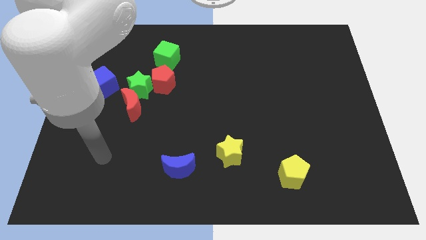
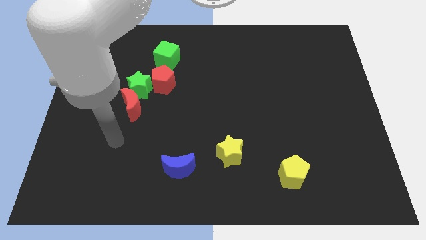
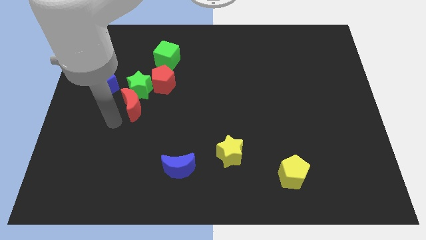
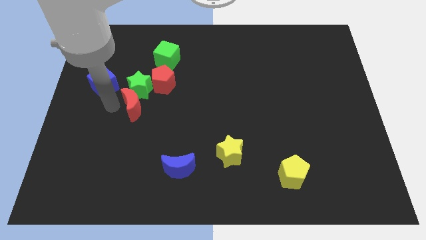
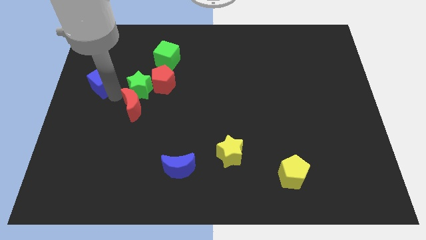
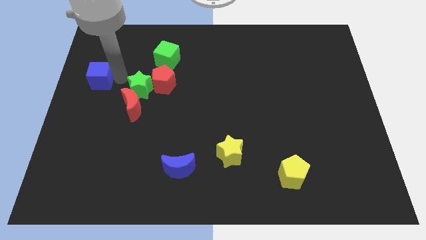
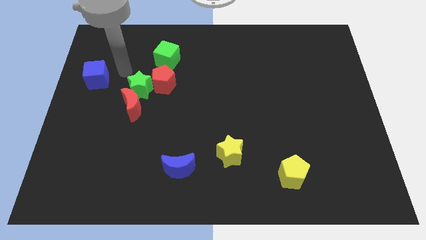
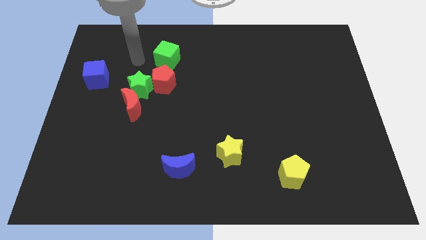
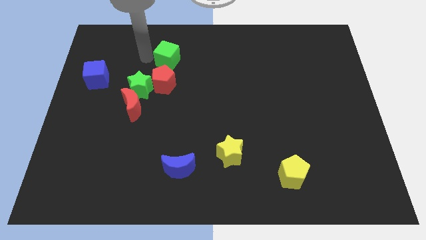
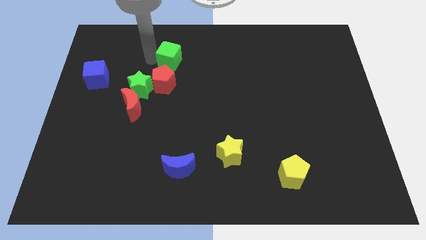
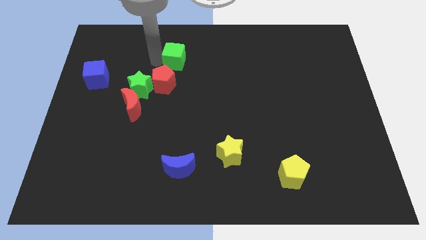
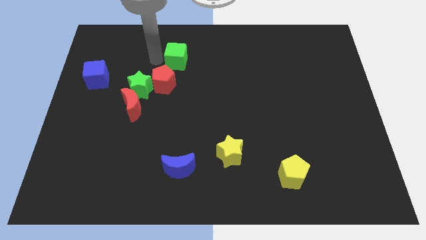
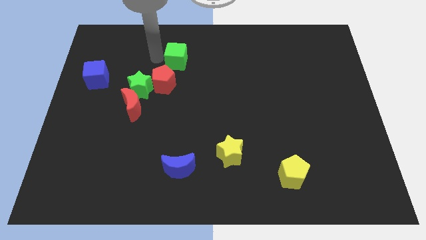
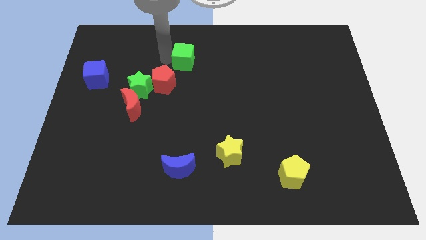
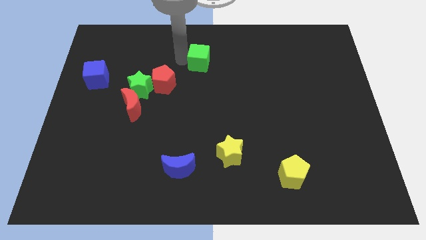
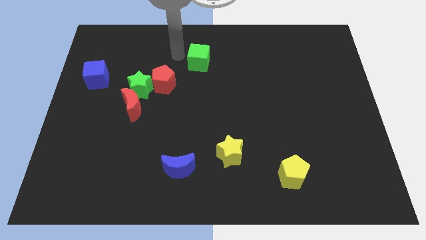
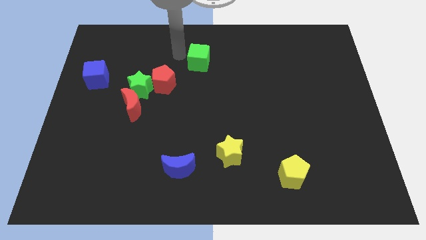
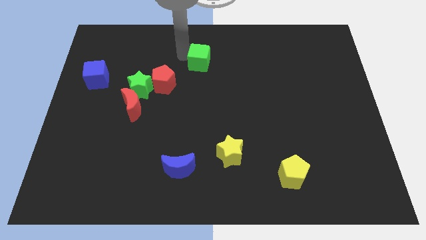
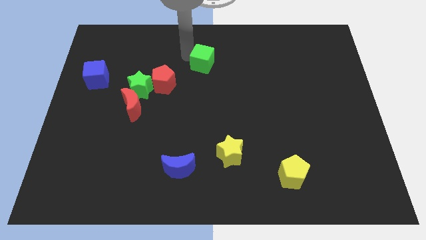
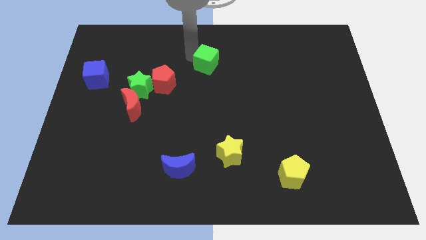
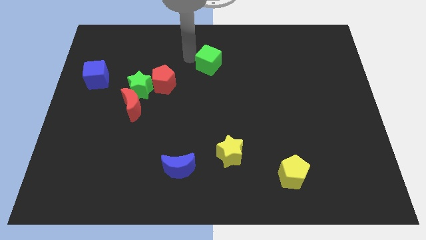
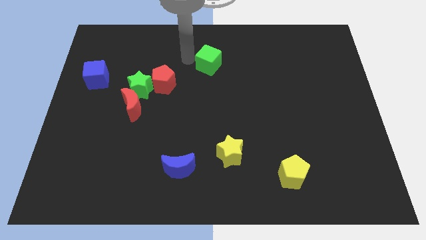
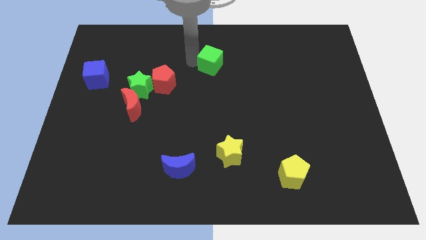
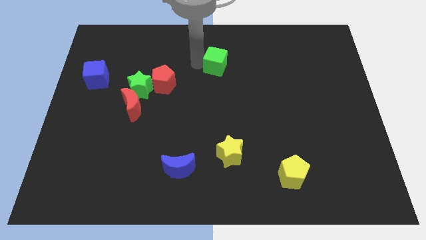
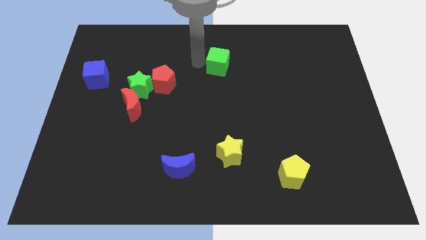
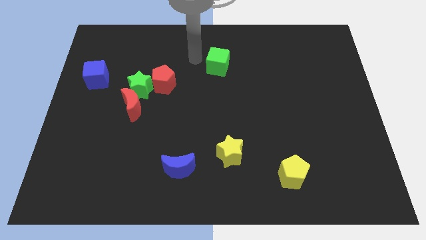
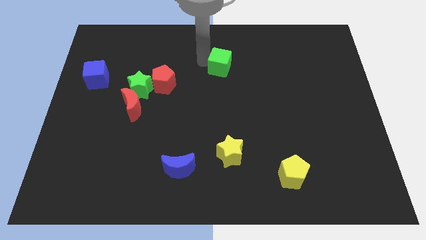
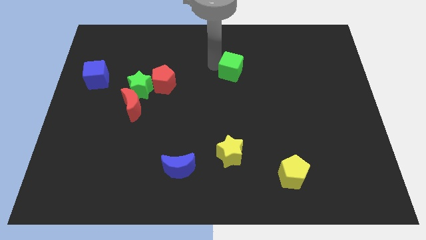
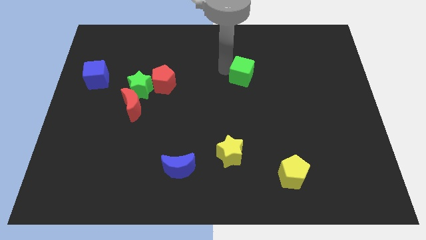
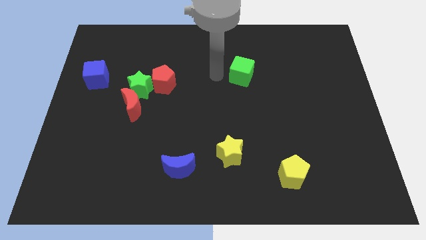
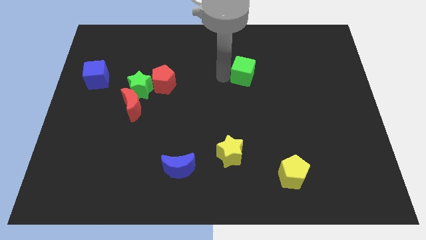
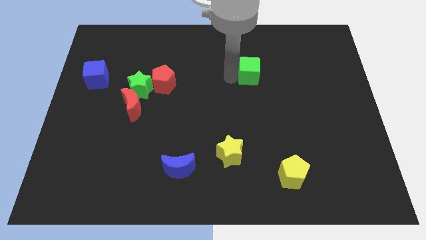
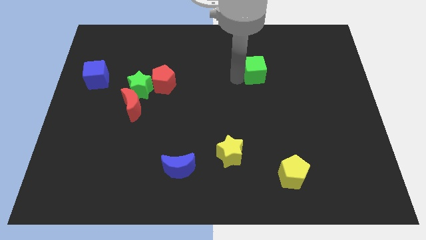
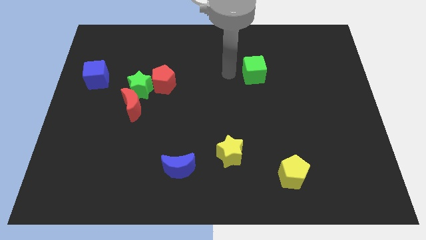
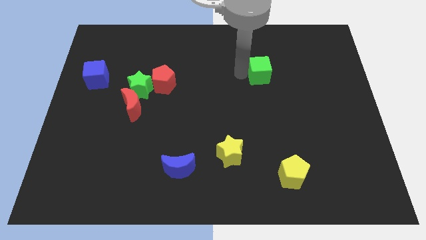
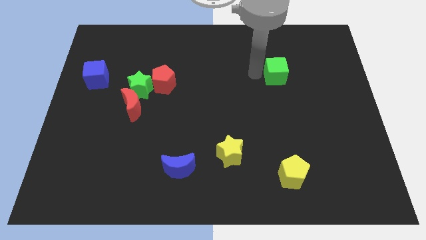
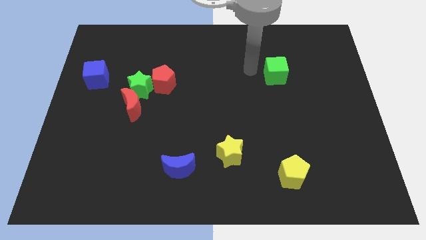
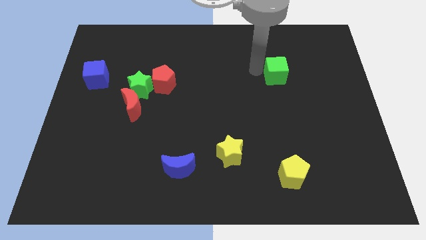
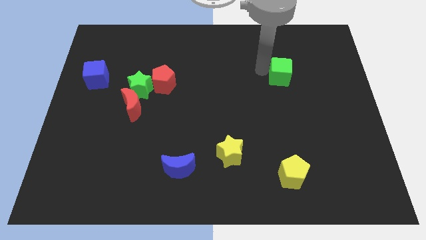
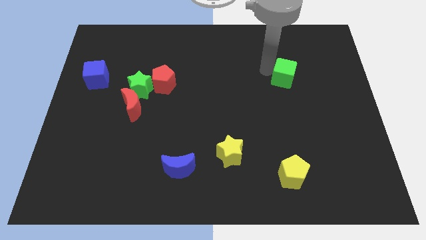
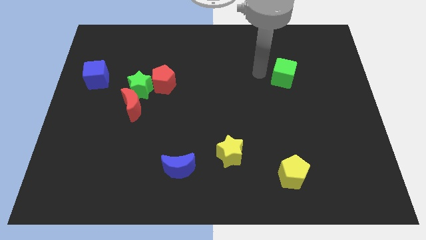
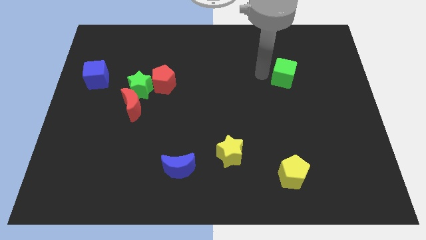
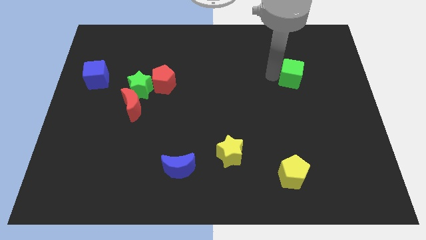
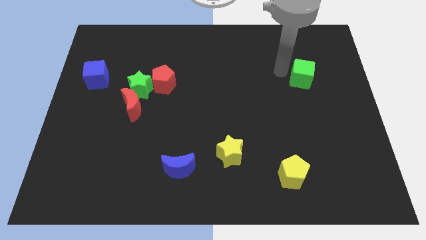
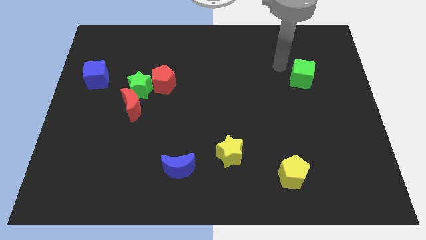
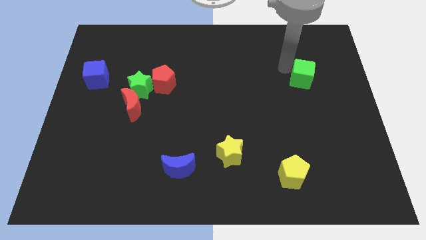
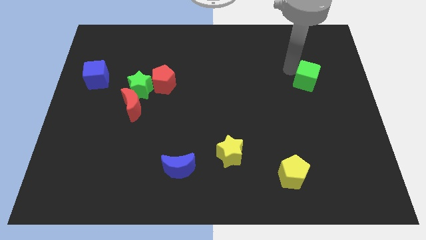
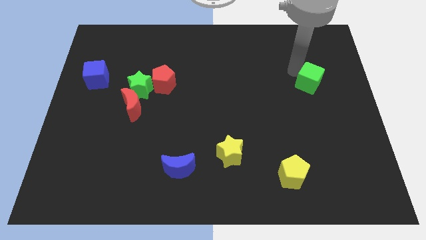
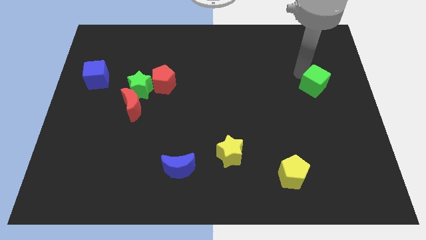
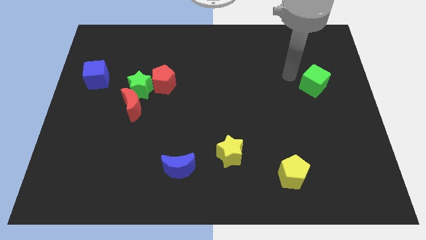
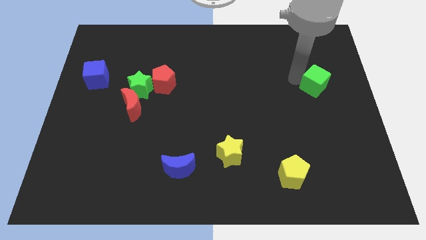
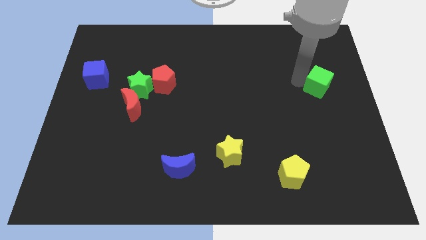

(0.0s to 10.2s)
put the green cube to the right side of the board

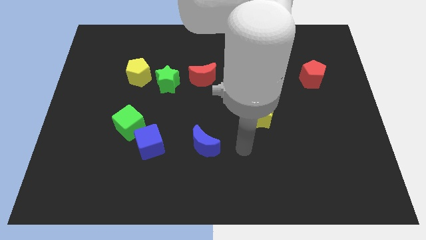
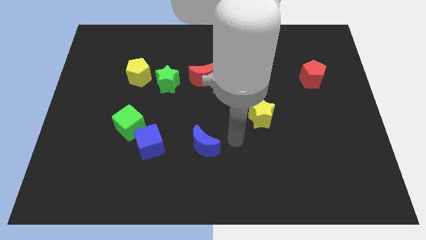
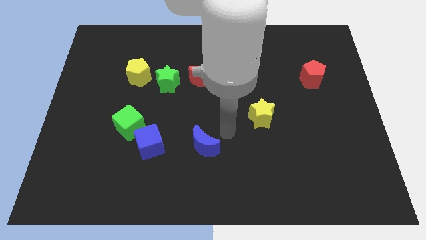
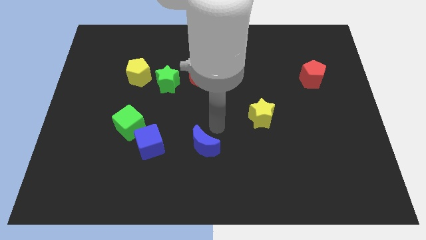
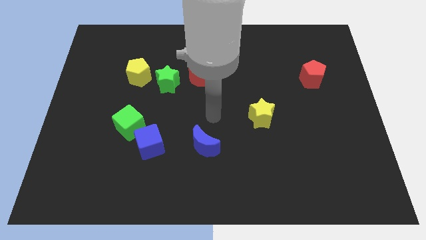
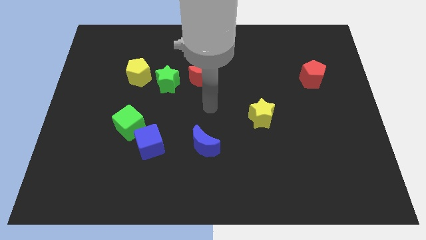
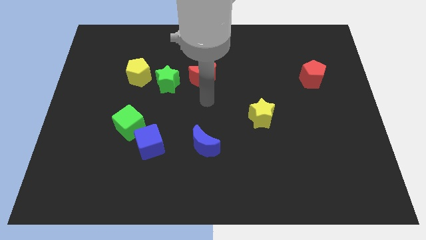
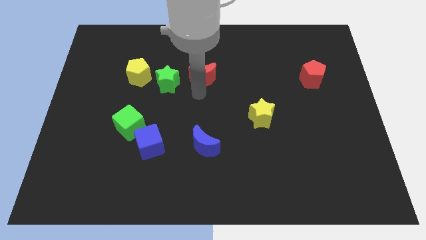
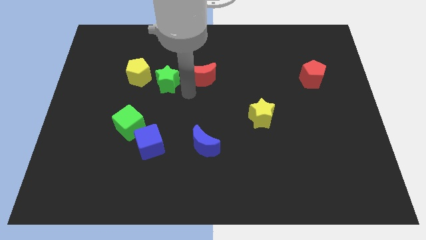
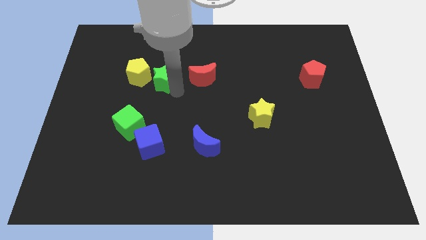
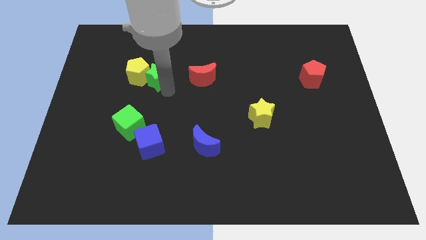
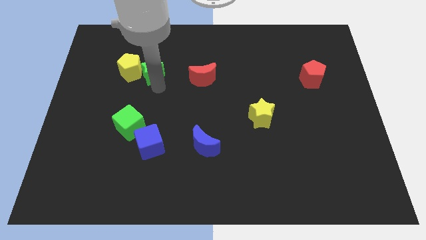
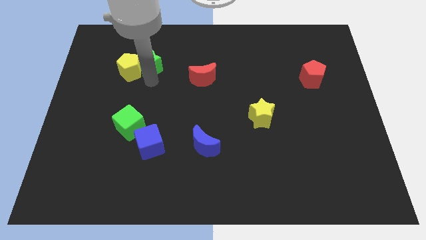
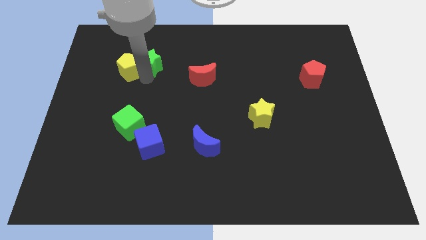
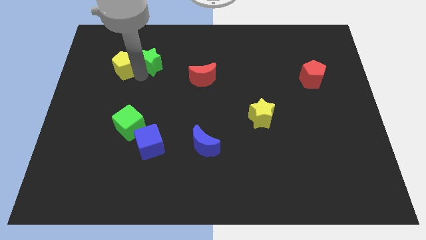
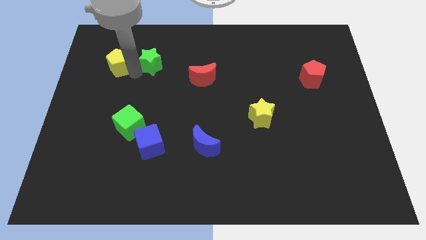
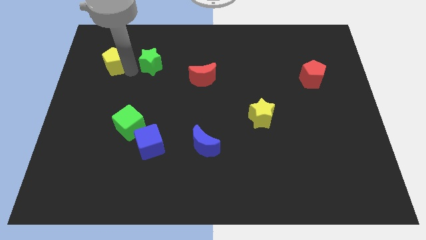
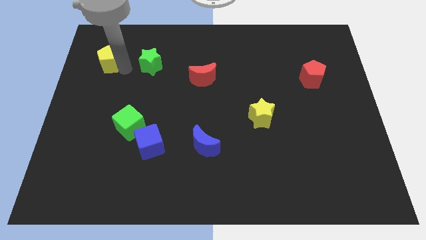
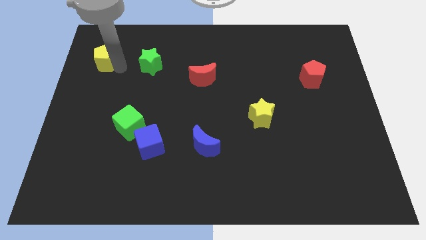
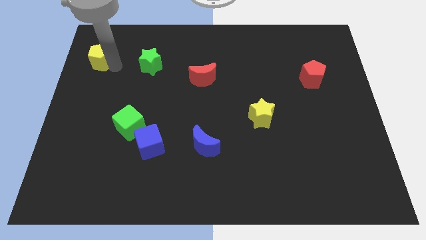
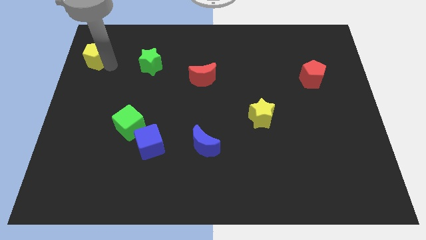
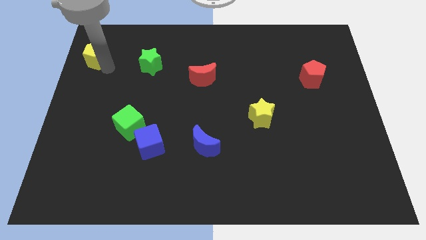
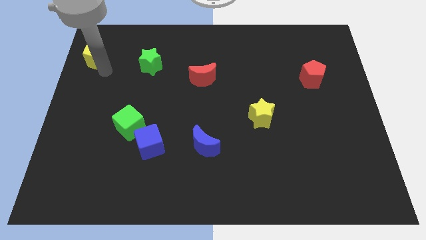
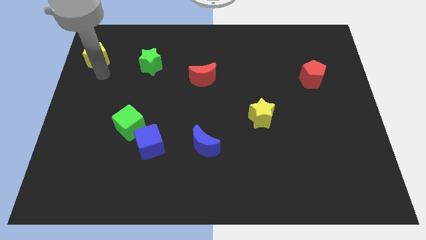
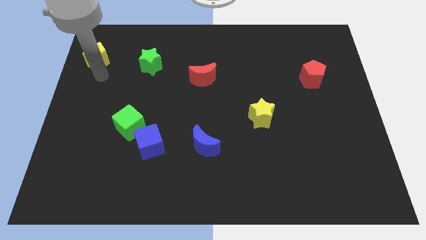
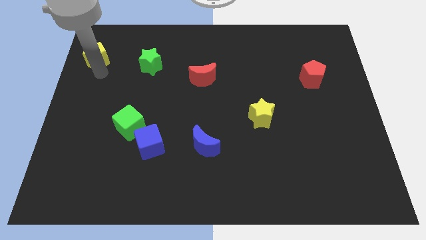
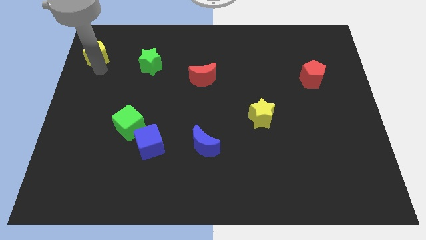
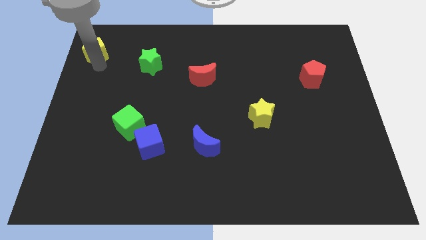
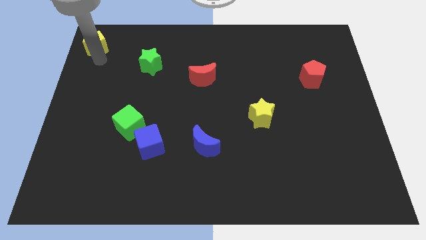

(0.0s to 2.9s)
slide the yellow pentagon to the top left
